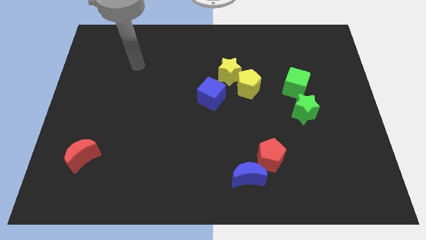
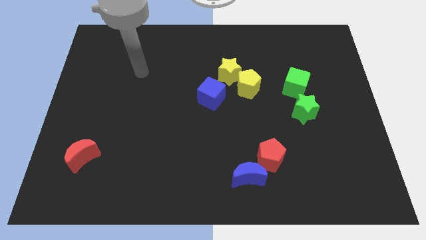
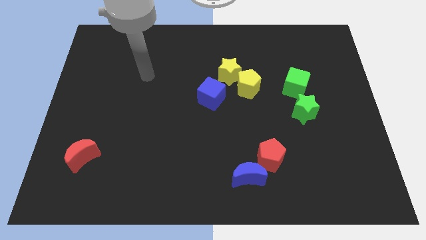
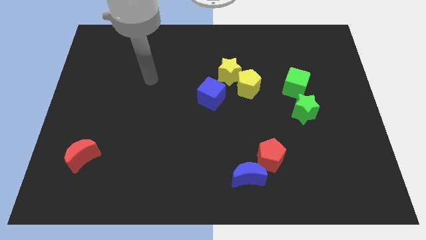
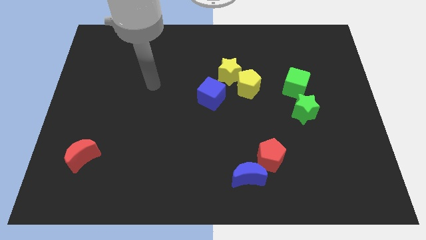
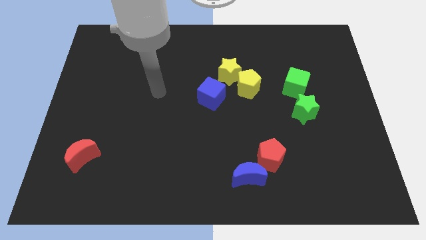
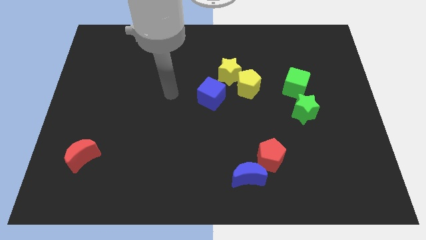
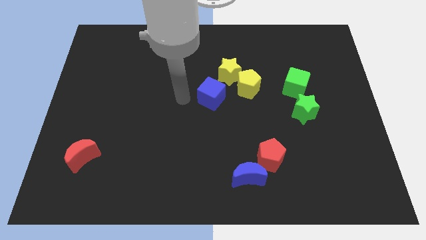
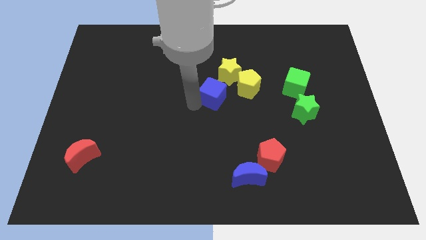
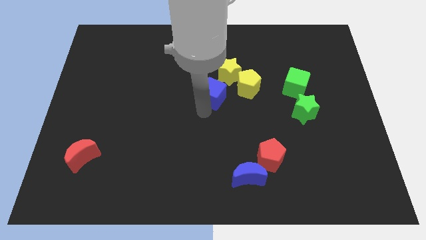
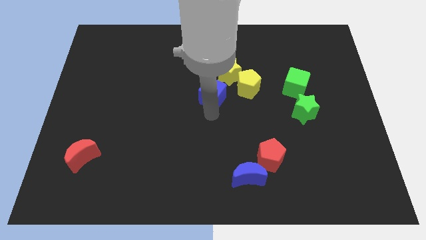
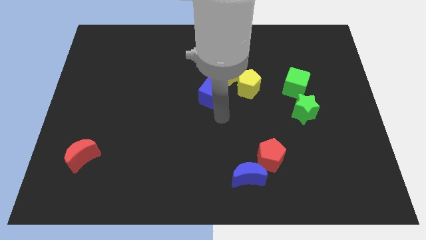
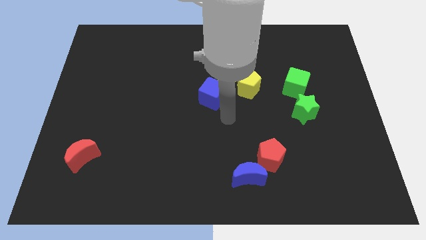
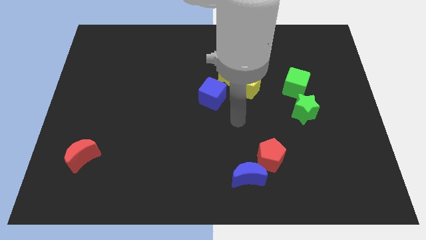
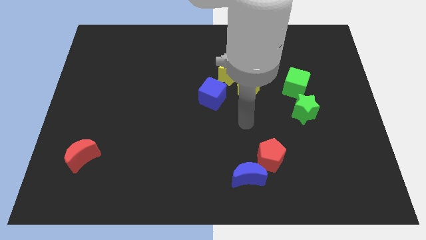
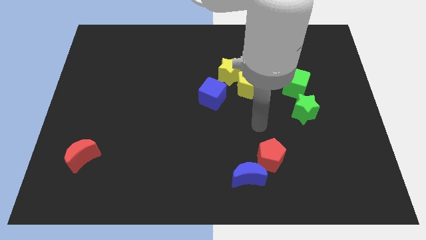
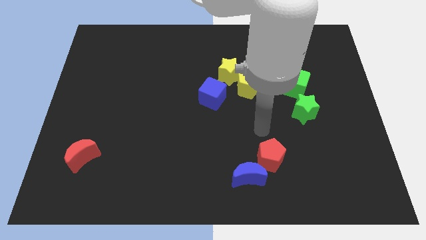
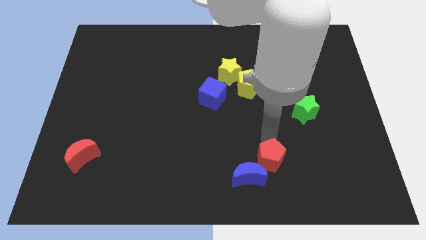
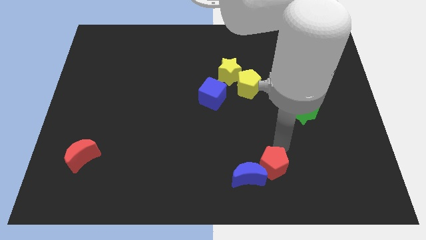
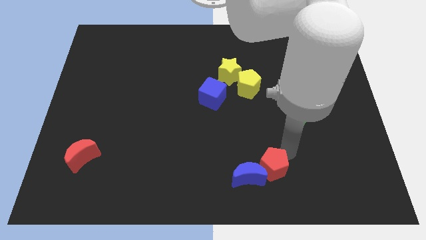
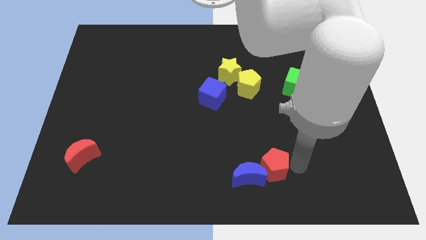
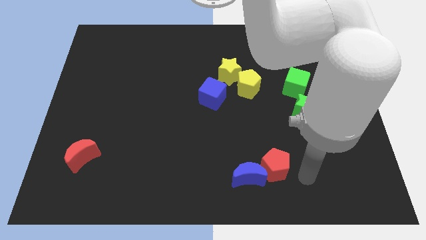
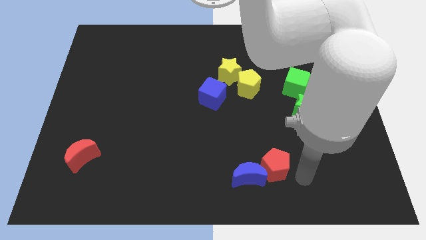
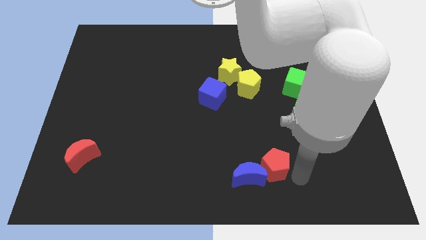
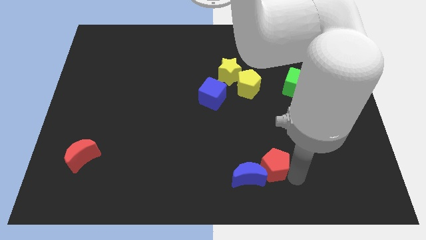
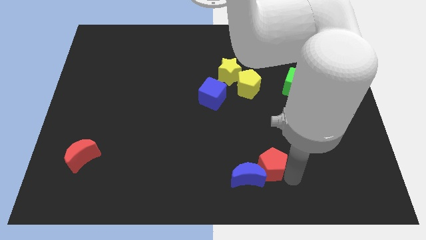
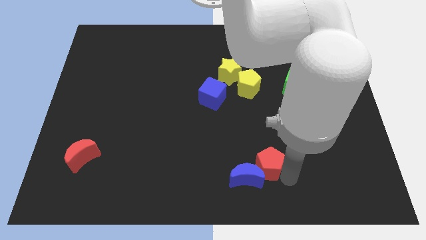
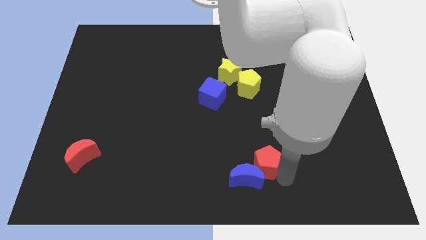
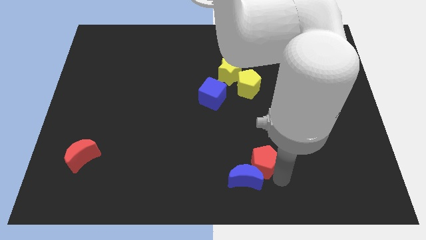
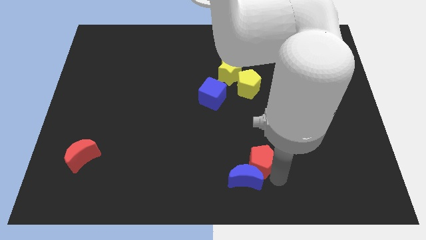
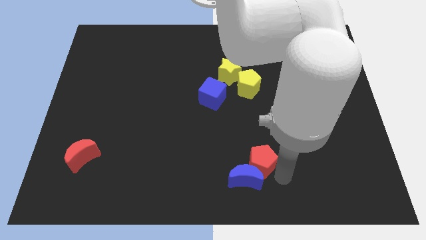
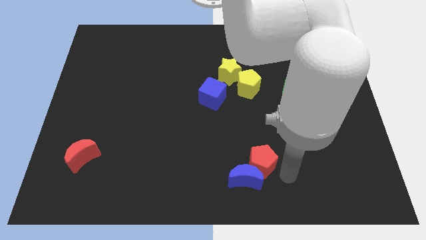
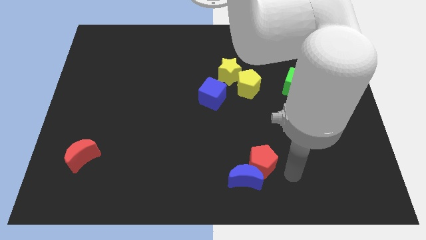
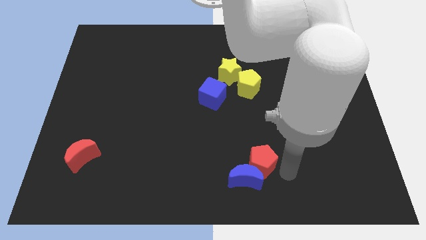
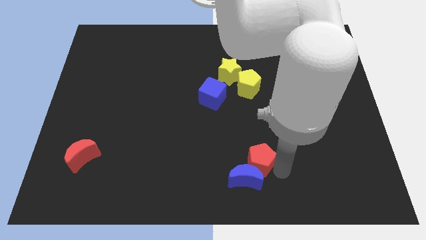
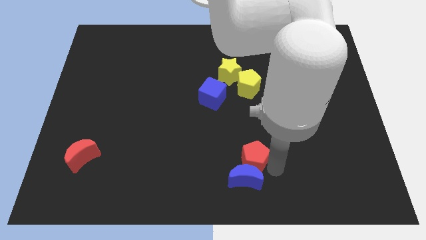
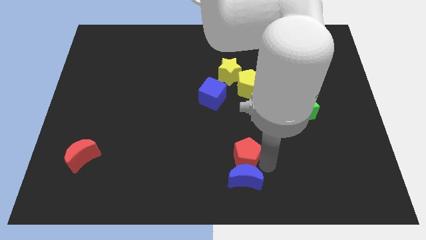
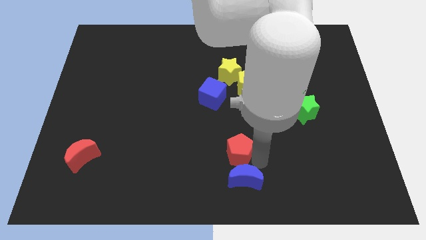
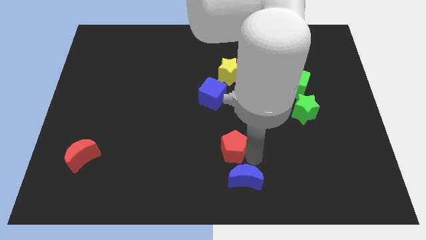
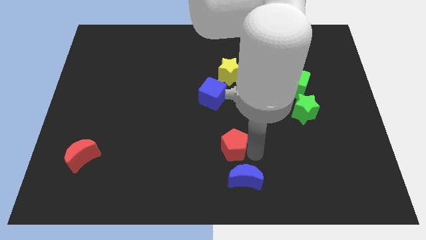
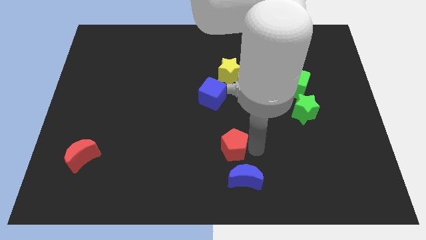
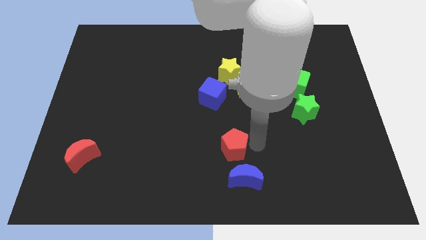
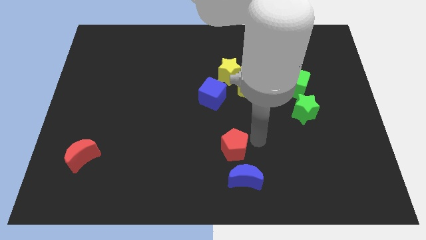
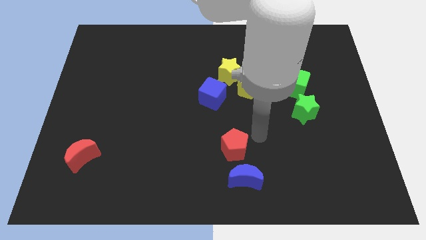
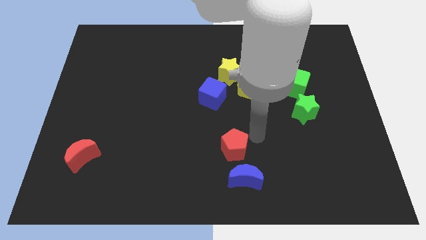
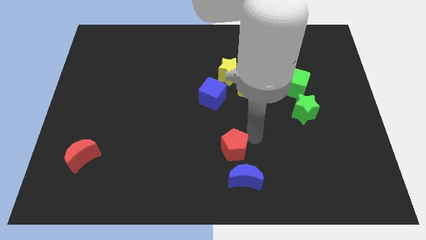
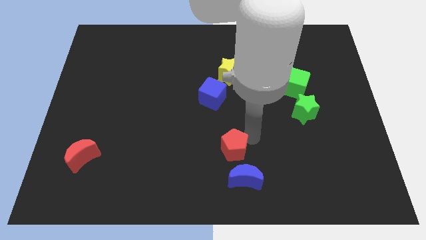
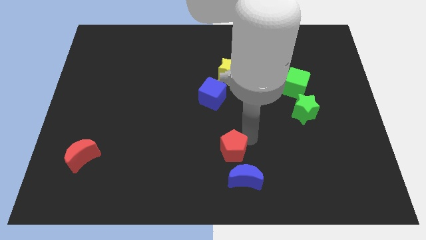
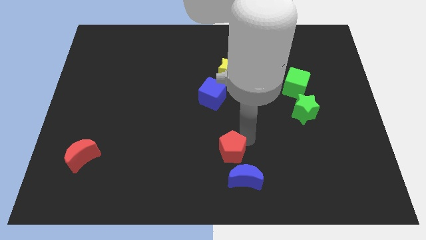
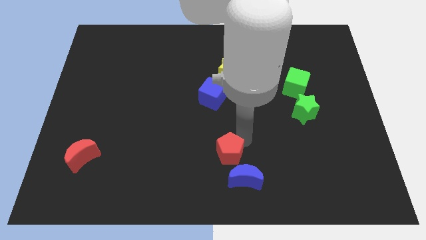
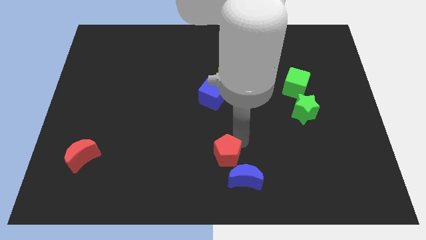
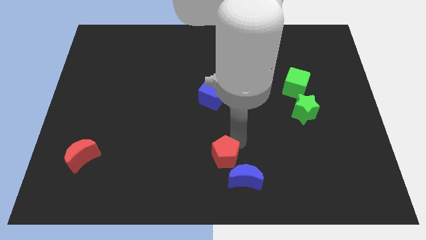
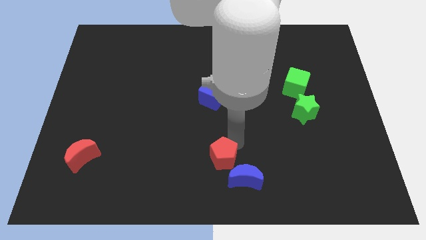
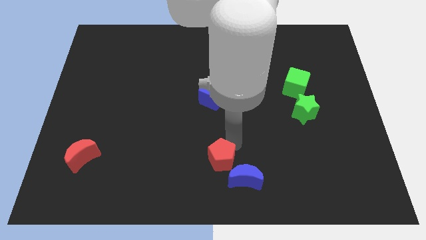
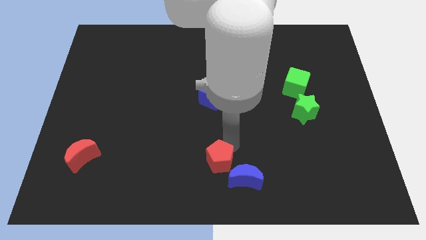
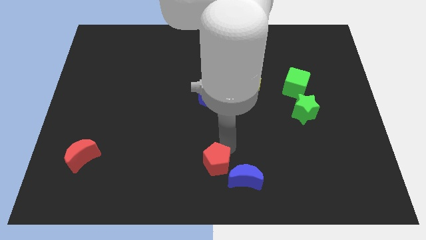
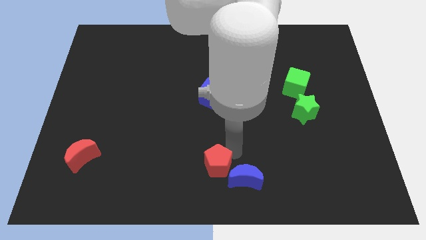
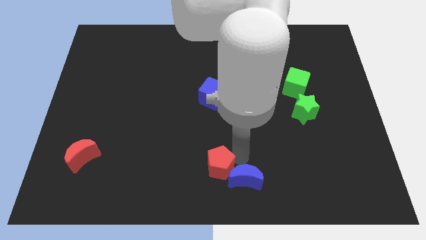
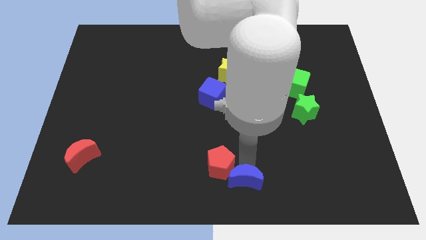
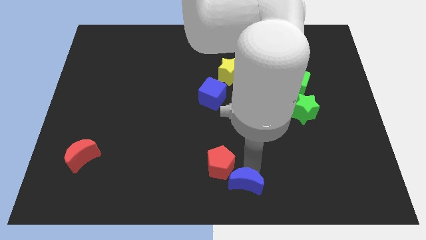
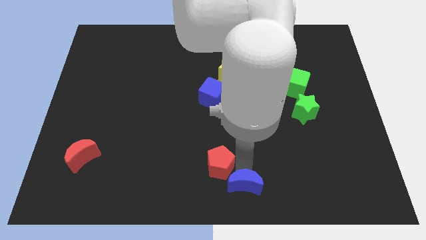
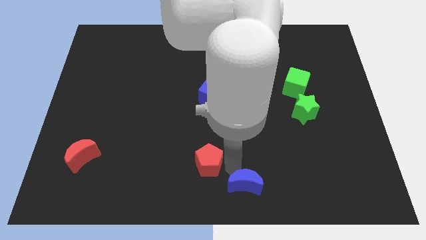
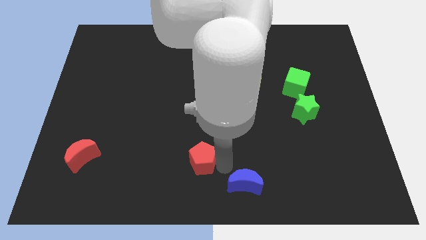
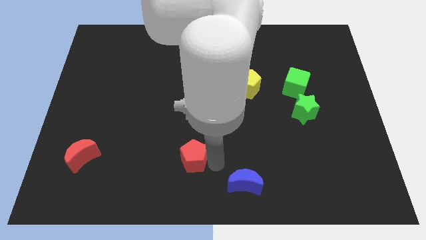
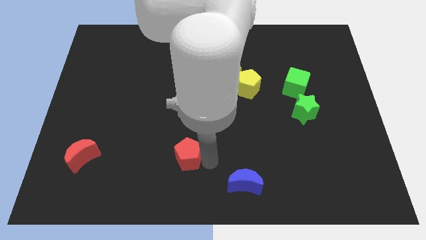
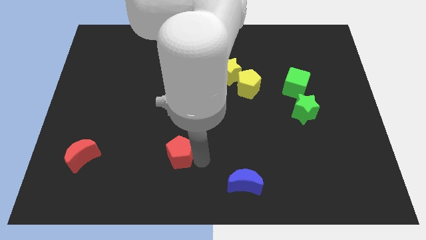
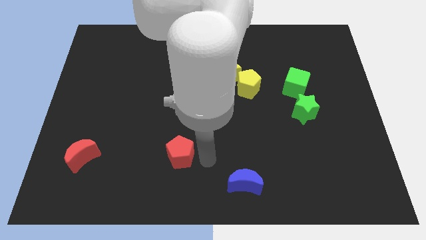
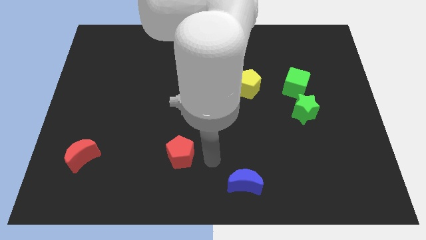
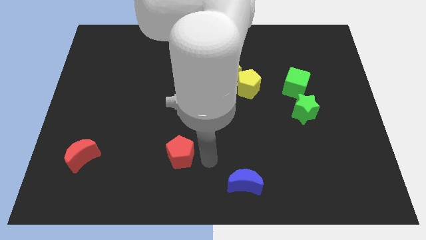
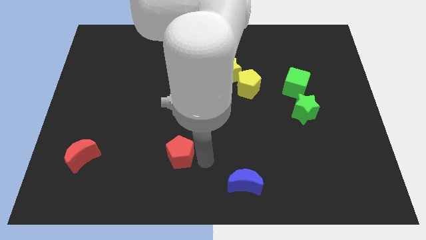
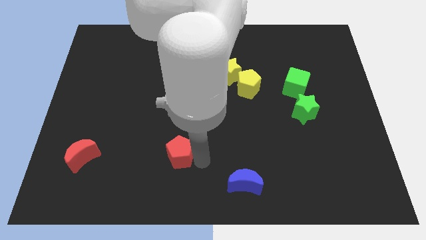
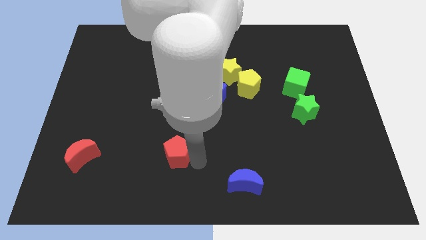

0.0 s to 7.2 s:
move the red pentagon left

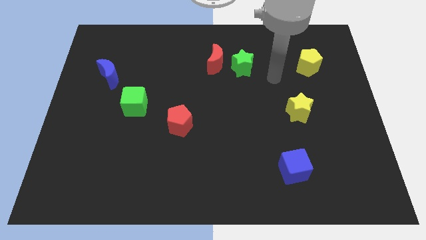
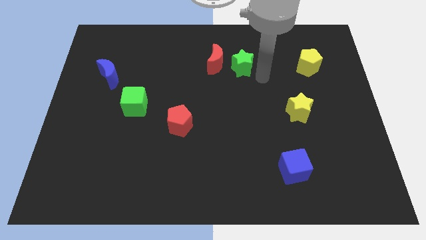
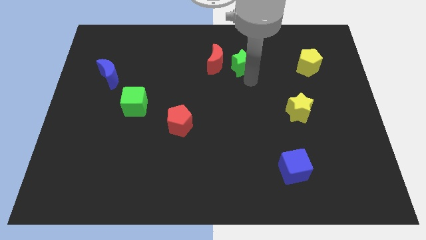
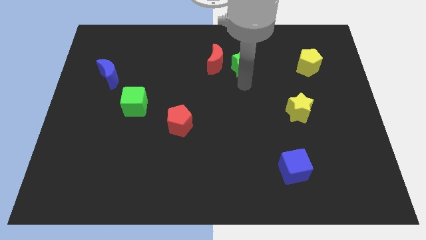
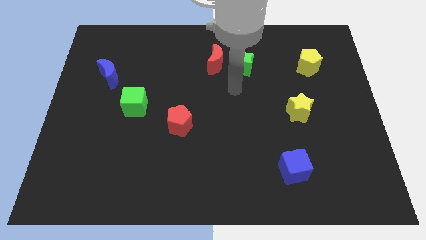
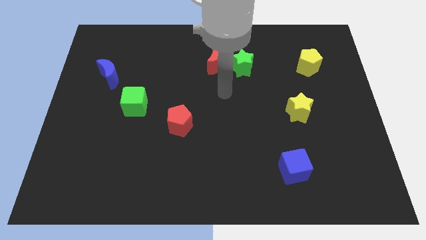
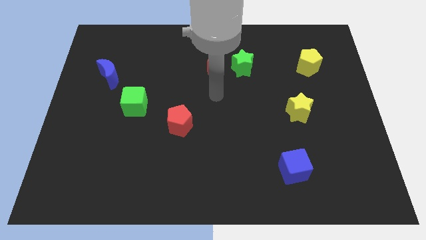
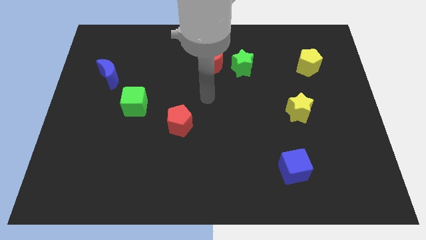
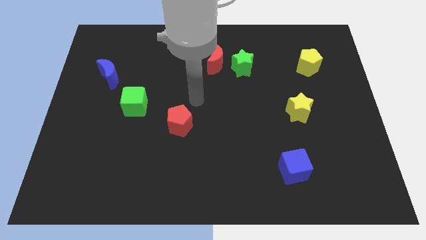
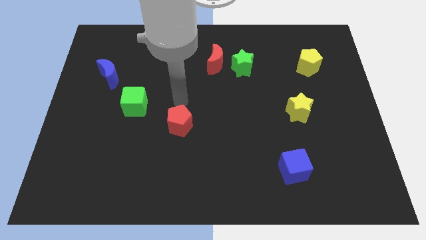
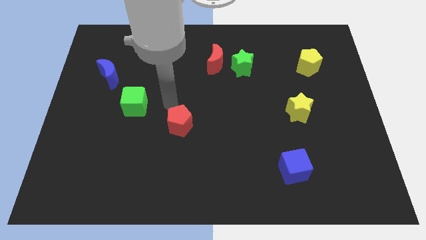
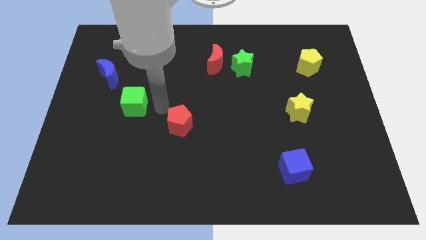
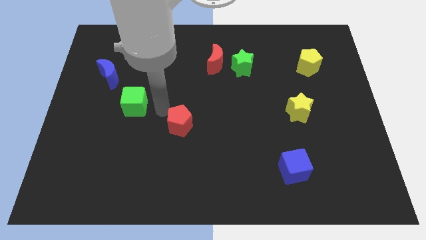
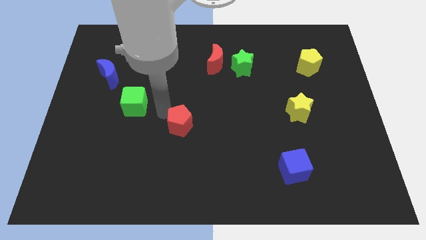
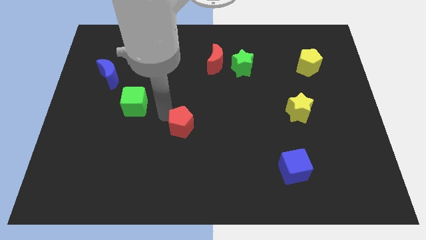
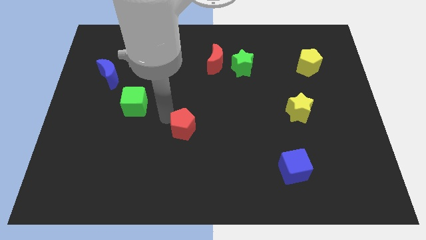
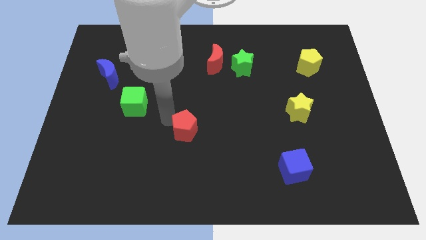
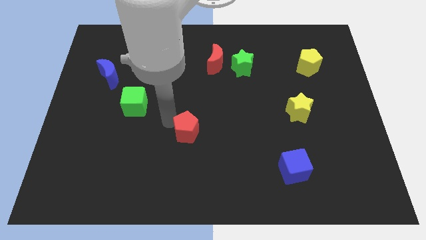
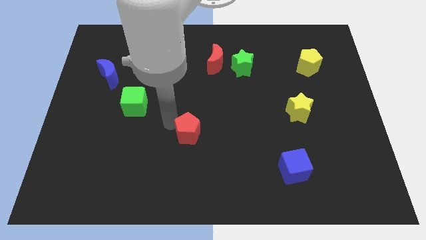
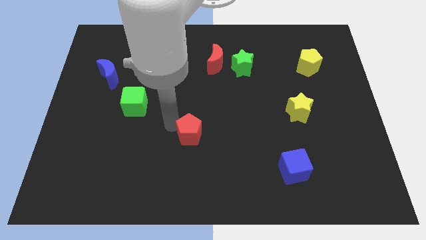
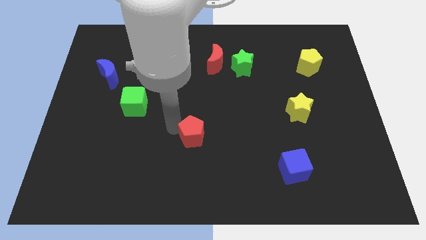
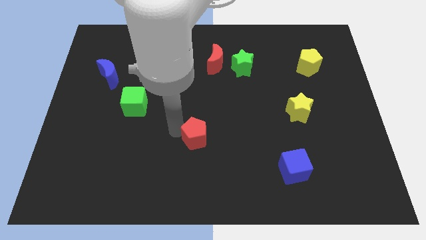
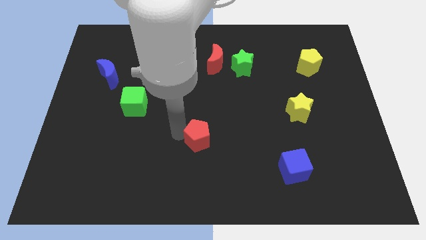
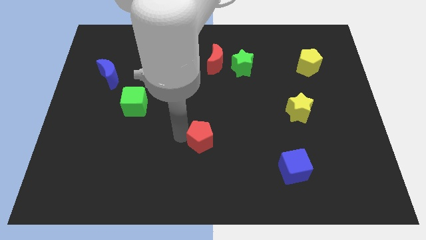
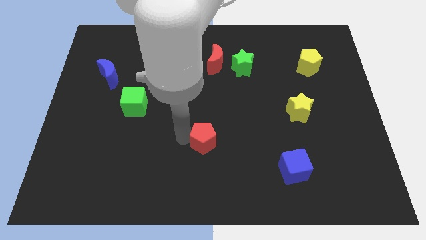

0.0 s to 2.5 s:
push the red pentagon downwards and to the right diagonally somewhat
